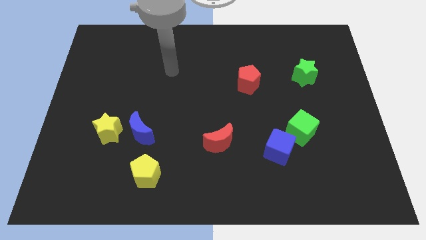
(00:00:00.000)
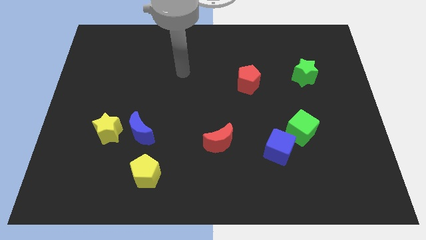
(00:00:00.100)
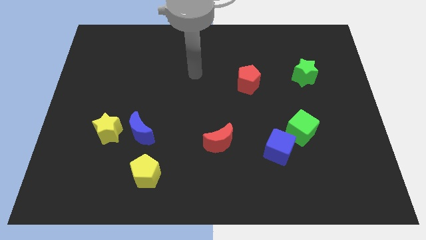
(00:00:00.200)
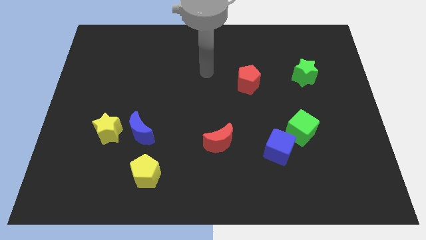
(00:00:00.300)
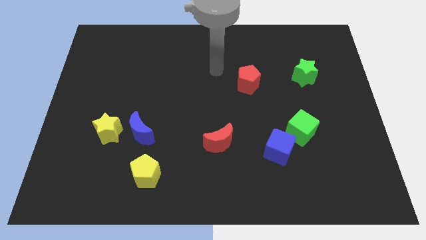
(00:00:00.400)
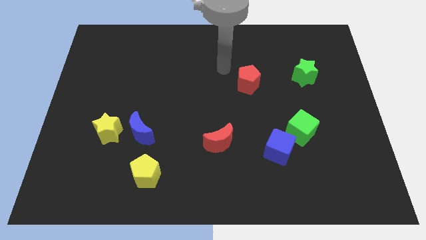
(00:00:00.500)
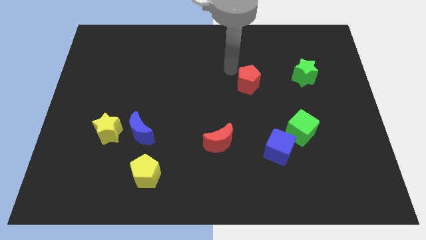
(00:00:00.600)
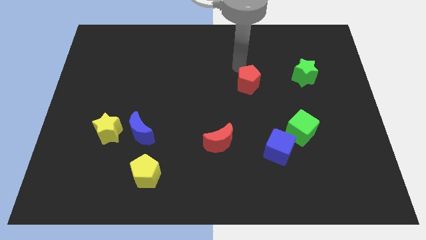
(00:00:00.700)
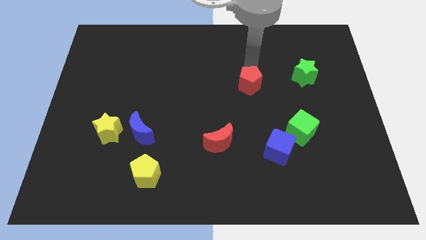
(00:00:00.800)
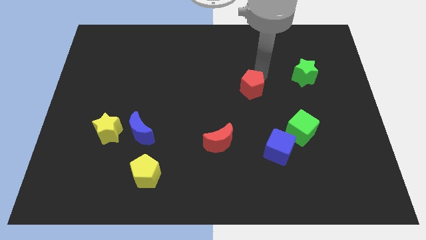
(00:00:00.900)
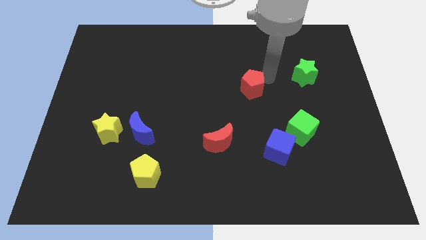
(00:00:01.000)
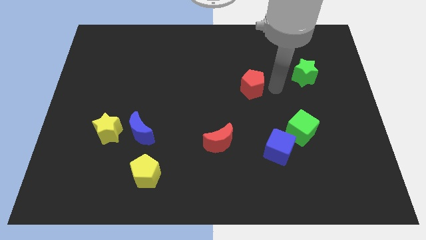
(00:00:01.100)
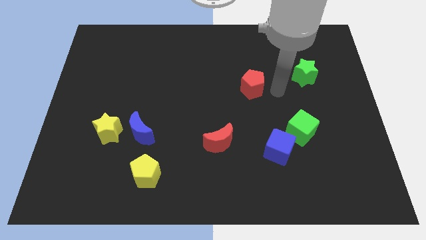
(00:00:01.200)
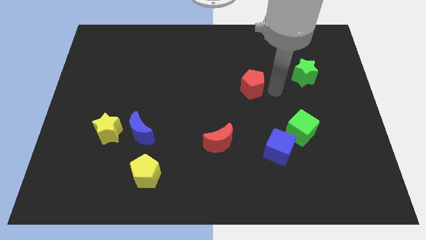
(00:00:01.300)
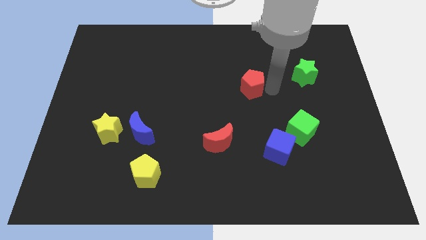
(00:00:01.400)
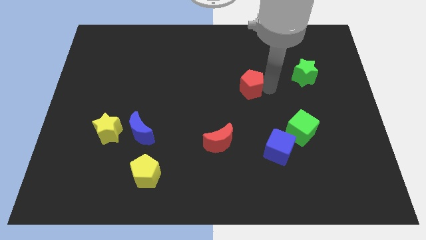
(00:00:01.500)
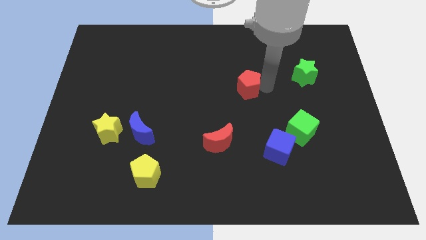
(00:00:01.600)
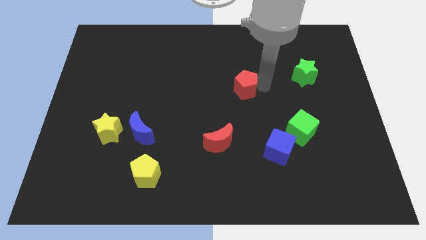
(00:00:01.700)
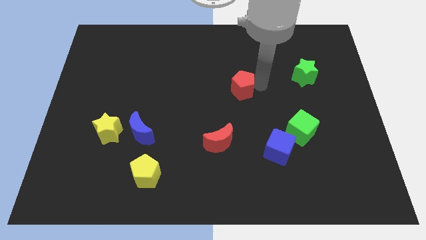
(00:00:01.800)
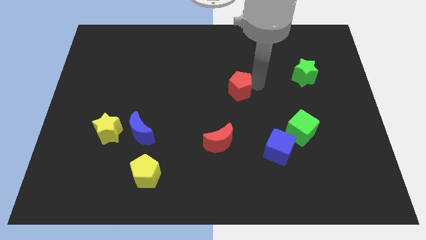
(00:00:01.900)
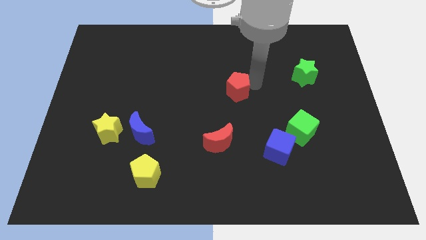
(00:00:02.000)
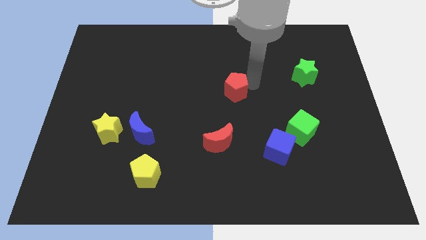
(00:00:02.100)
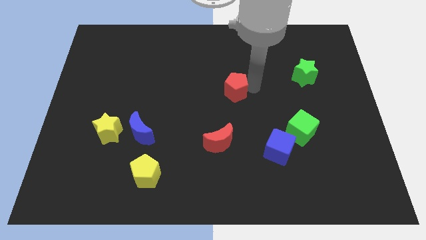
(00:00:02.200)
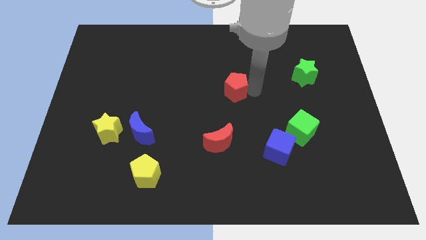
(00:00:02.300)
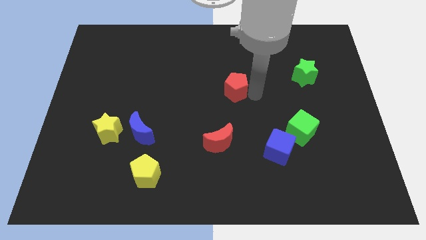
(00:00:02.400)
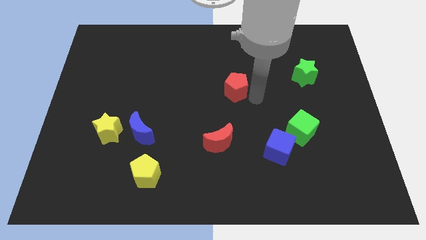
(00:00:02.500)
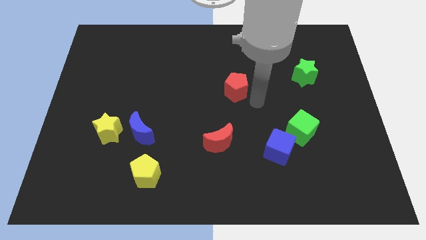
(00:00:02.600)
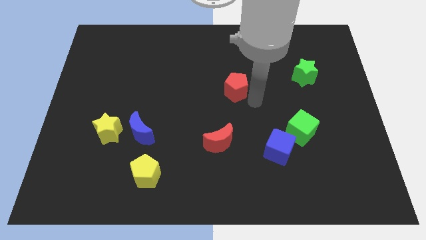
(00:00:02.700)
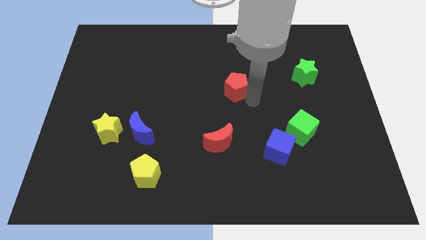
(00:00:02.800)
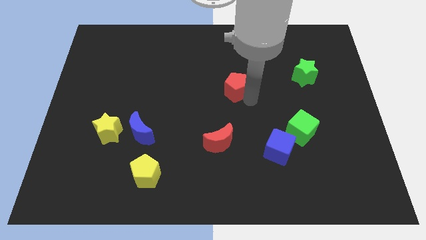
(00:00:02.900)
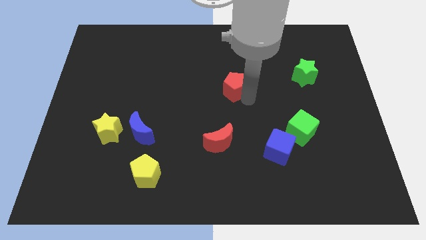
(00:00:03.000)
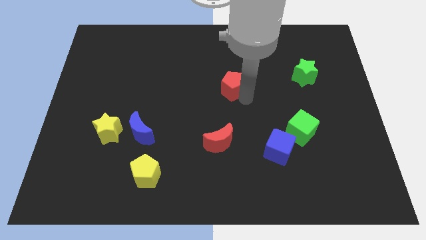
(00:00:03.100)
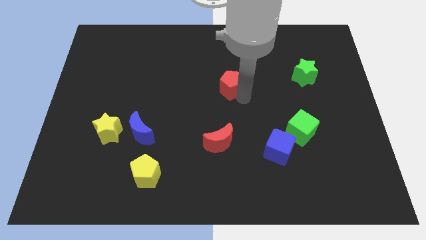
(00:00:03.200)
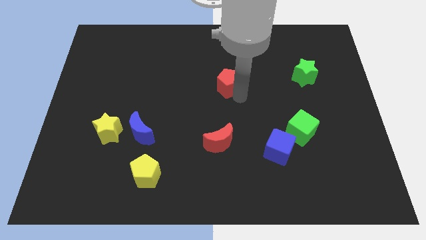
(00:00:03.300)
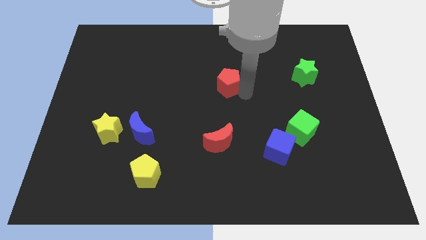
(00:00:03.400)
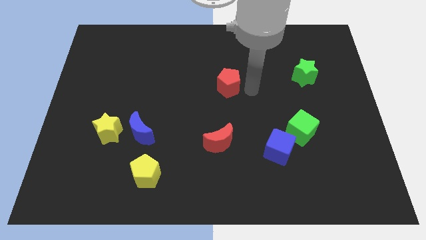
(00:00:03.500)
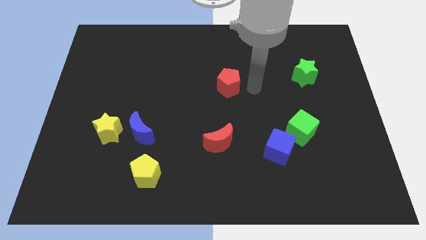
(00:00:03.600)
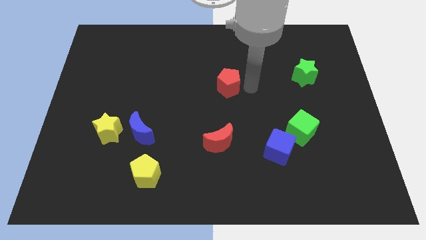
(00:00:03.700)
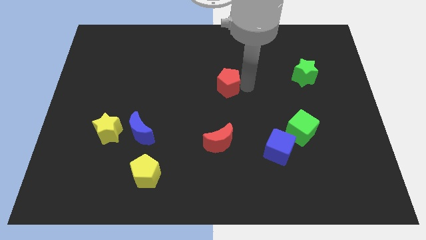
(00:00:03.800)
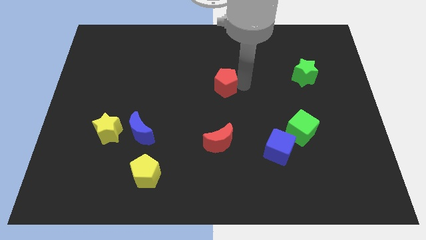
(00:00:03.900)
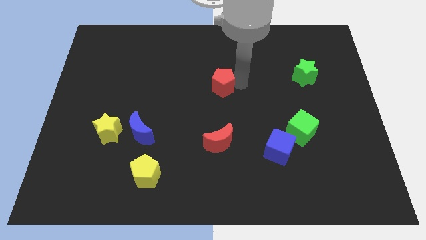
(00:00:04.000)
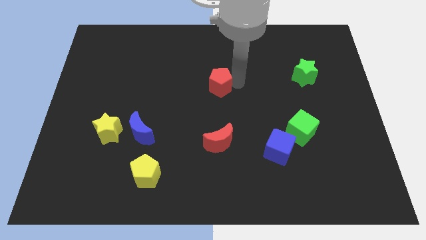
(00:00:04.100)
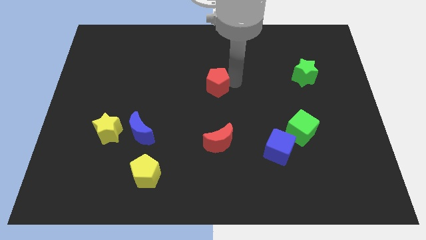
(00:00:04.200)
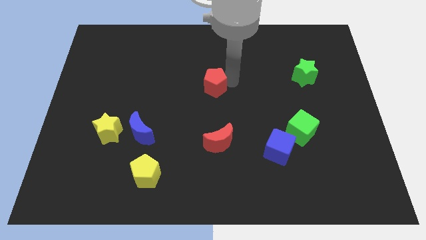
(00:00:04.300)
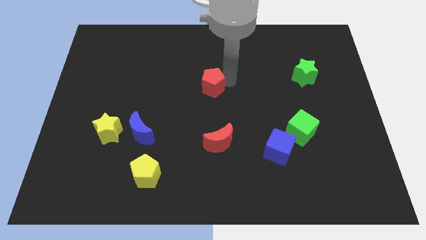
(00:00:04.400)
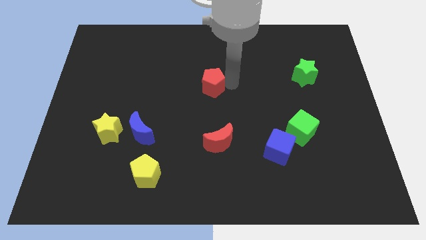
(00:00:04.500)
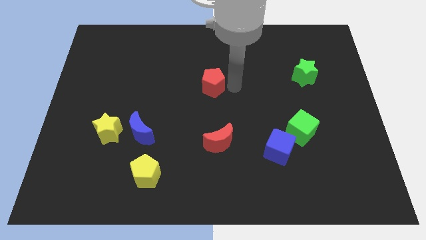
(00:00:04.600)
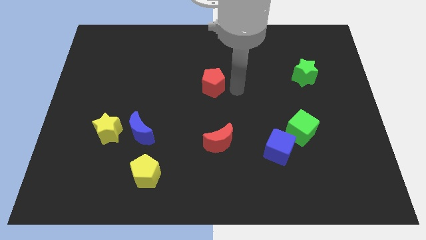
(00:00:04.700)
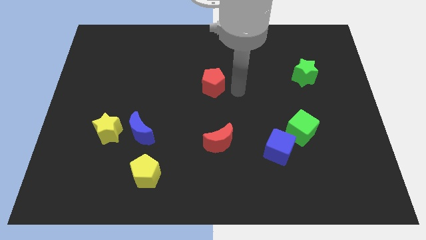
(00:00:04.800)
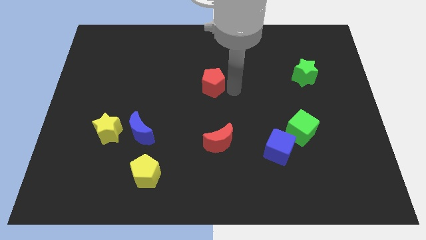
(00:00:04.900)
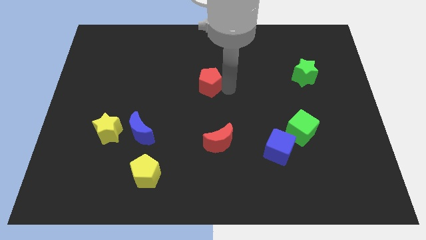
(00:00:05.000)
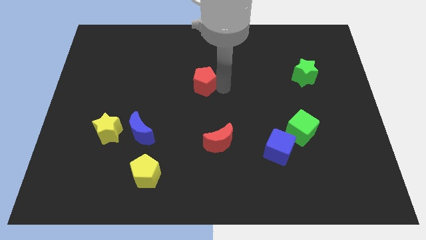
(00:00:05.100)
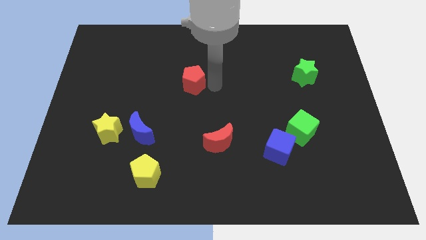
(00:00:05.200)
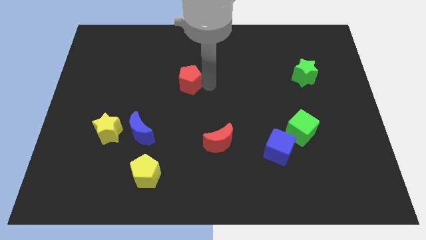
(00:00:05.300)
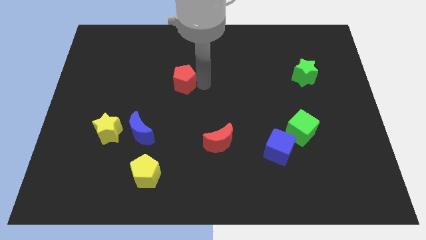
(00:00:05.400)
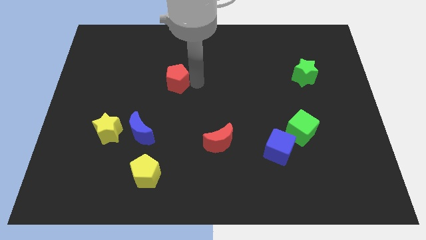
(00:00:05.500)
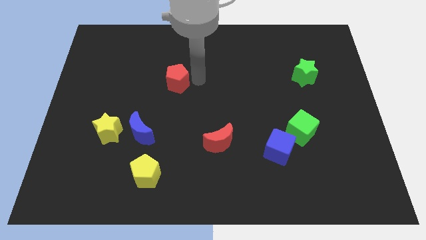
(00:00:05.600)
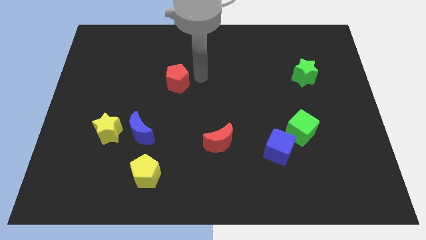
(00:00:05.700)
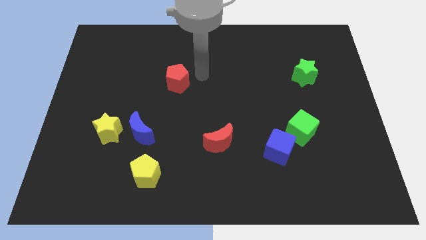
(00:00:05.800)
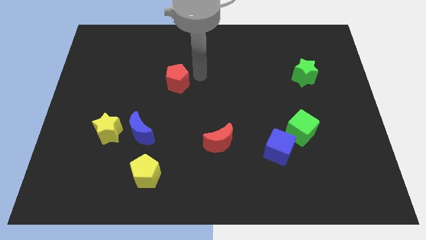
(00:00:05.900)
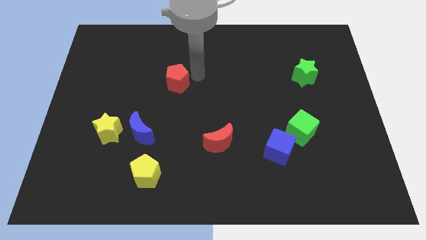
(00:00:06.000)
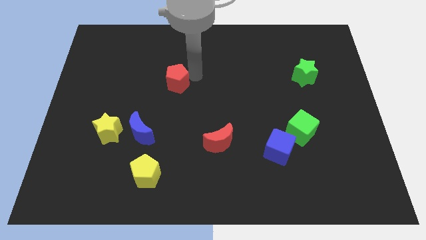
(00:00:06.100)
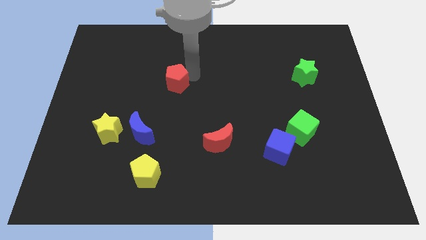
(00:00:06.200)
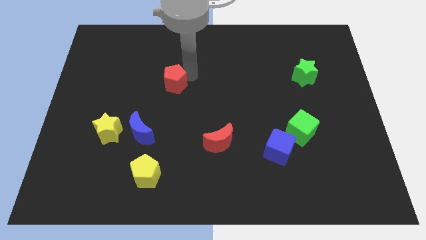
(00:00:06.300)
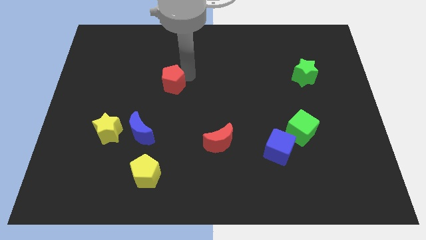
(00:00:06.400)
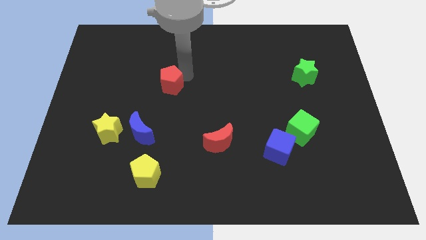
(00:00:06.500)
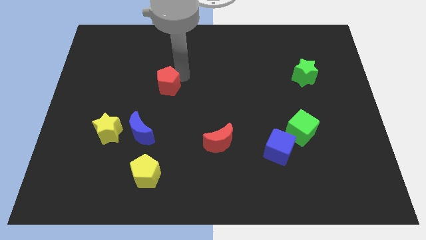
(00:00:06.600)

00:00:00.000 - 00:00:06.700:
move the red pentagon left

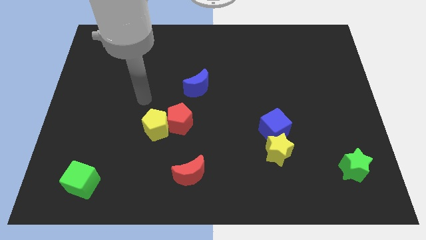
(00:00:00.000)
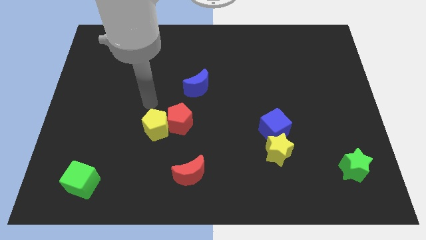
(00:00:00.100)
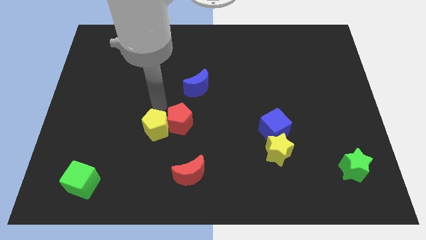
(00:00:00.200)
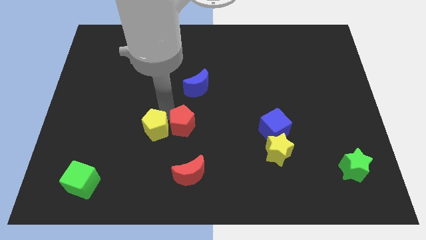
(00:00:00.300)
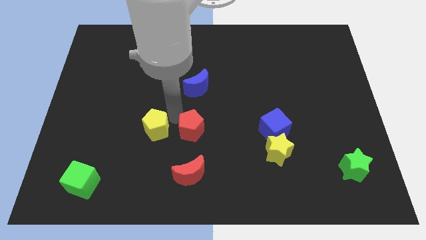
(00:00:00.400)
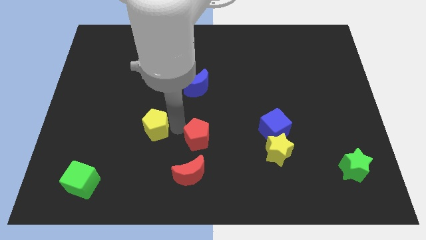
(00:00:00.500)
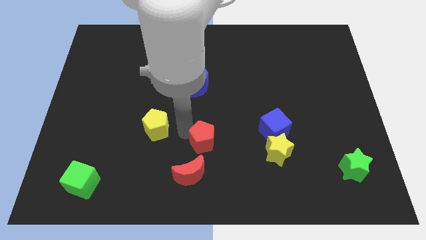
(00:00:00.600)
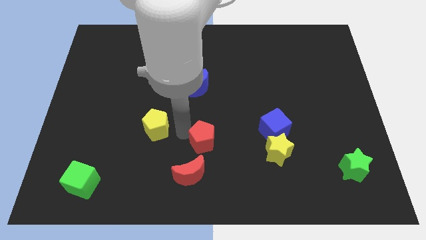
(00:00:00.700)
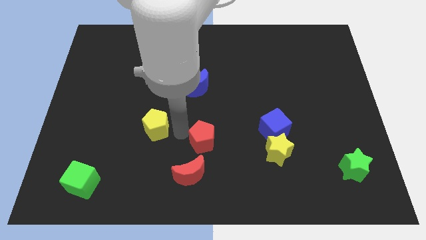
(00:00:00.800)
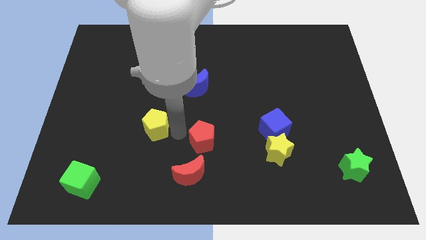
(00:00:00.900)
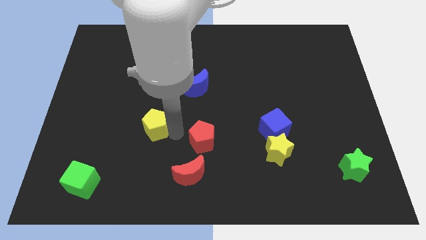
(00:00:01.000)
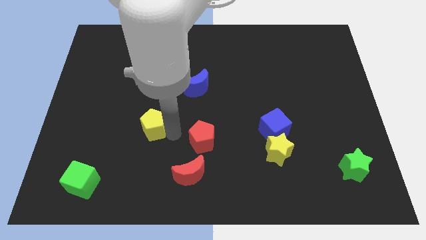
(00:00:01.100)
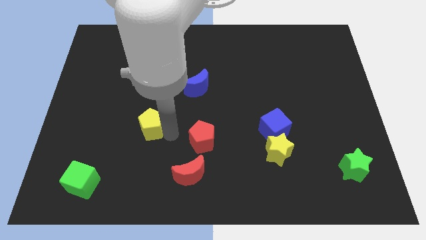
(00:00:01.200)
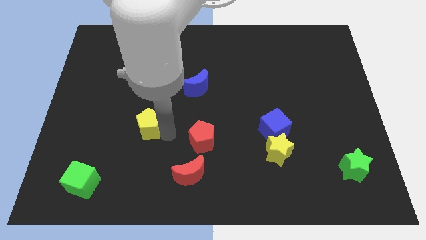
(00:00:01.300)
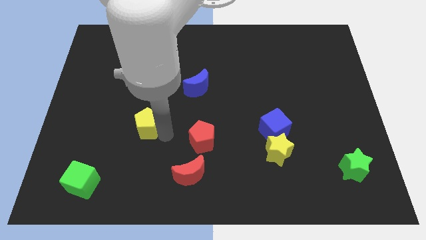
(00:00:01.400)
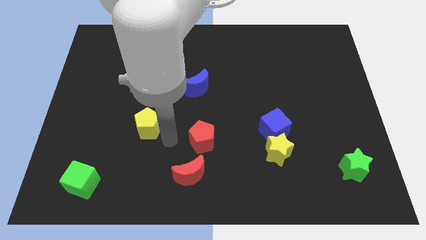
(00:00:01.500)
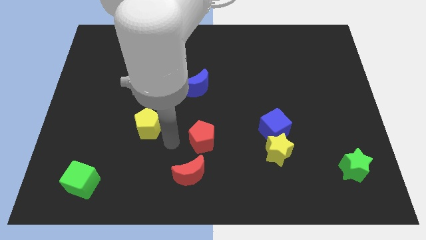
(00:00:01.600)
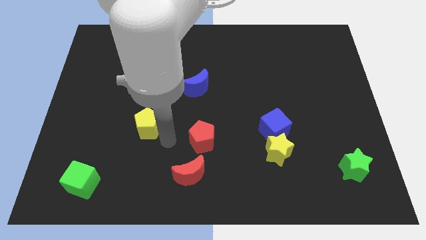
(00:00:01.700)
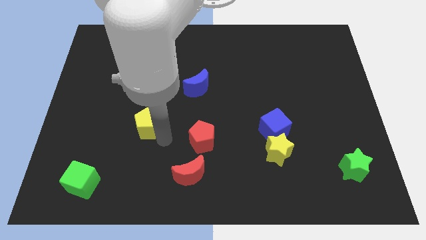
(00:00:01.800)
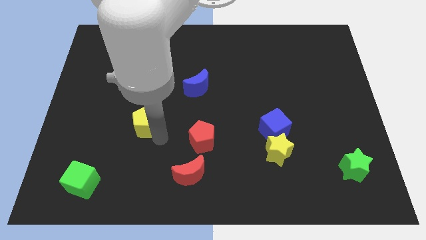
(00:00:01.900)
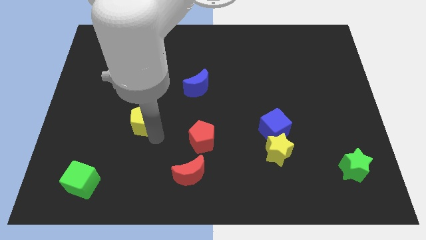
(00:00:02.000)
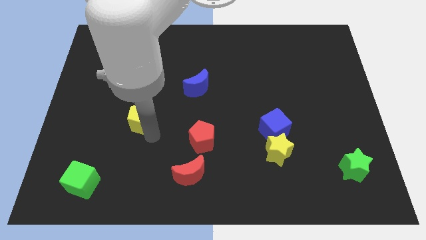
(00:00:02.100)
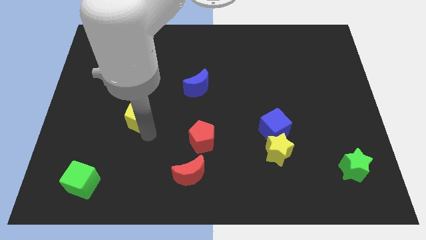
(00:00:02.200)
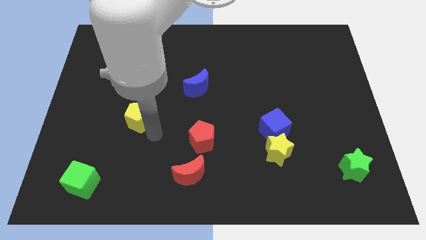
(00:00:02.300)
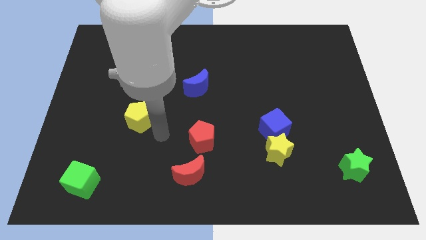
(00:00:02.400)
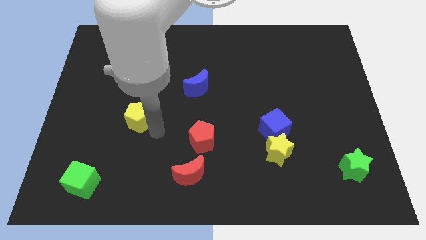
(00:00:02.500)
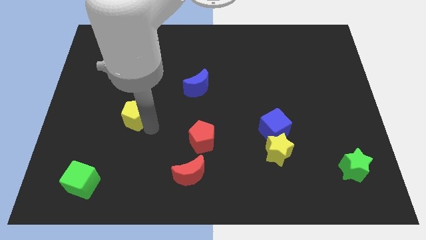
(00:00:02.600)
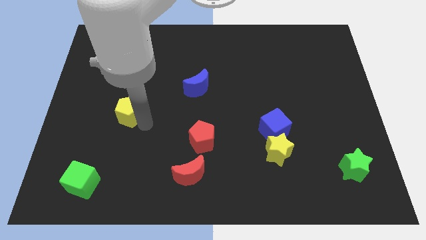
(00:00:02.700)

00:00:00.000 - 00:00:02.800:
move the yellow pentagon upwards and to the left diagonally a bit
